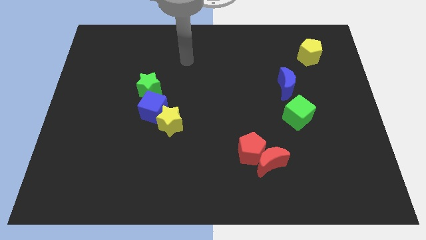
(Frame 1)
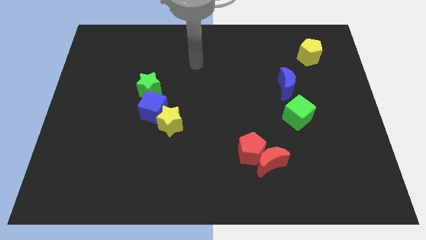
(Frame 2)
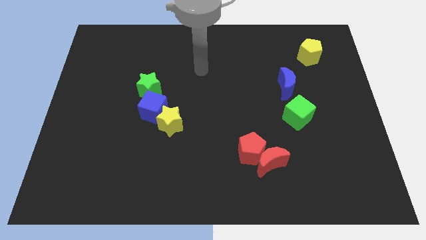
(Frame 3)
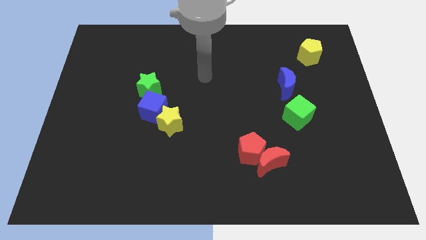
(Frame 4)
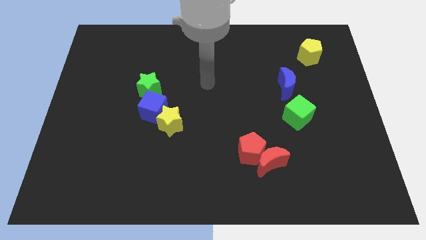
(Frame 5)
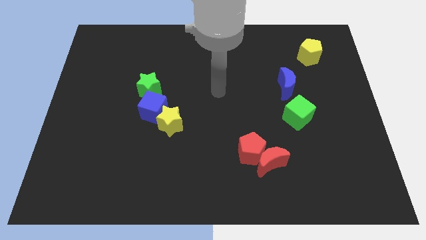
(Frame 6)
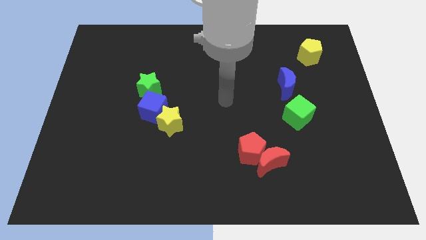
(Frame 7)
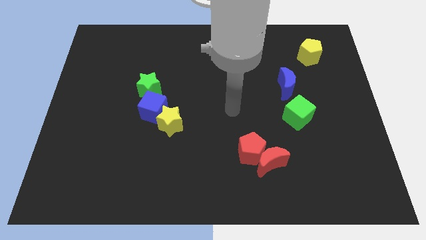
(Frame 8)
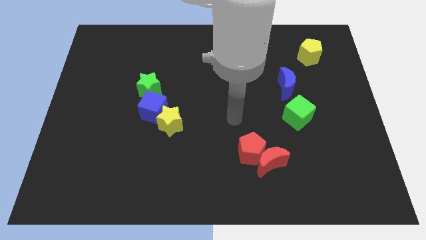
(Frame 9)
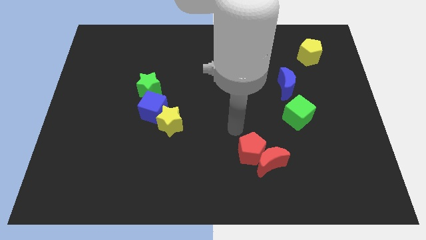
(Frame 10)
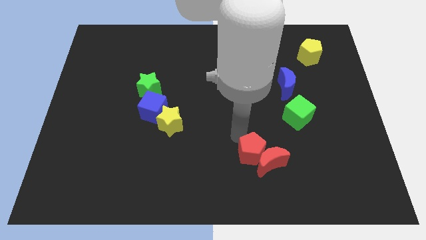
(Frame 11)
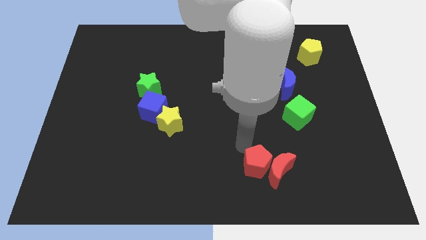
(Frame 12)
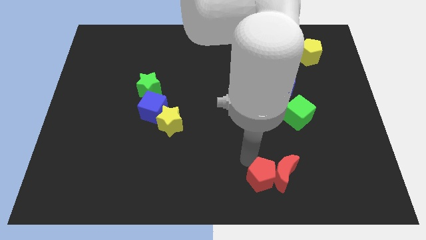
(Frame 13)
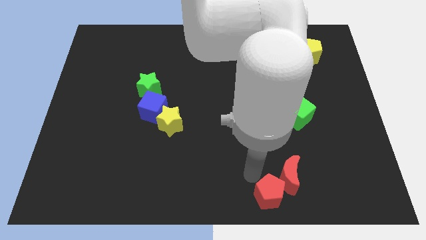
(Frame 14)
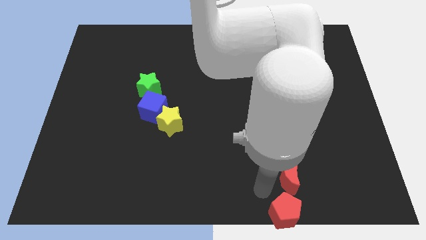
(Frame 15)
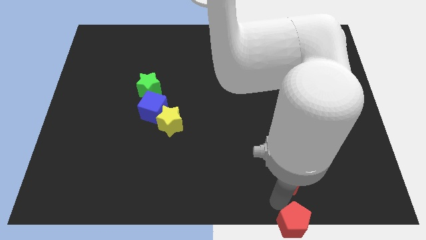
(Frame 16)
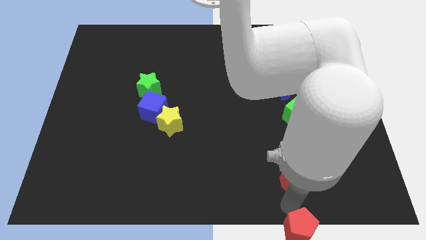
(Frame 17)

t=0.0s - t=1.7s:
separate the red moon from the red pentagon

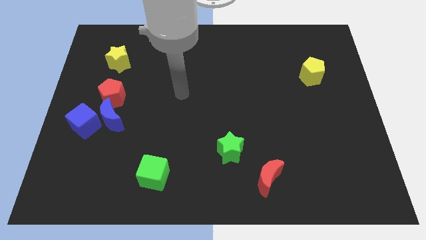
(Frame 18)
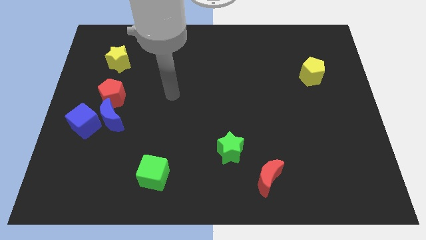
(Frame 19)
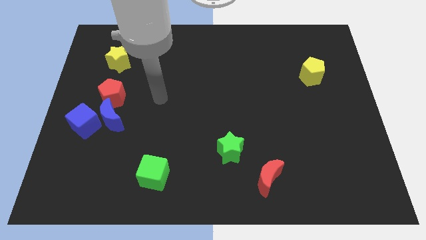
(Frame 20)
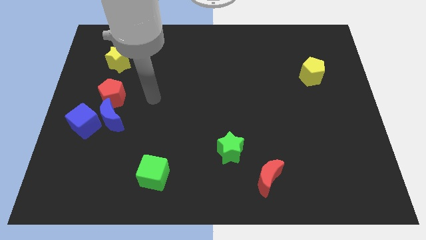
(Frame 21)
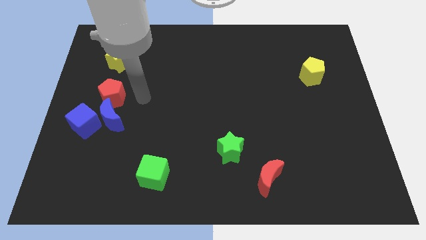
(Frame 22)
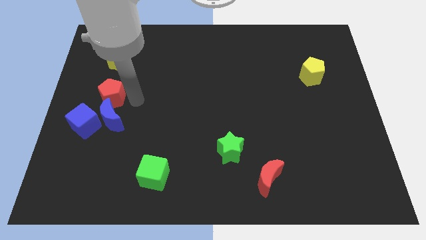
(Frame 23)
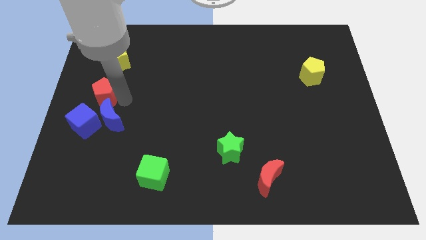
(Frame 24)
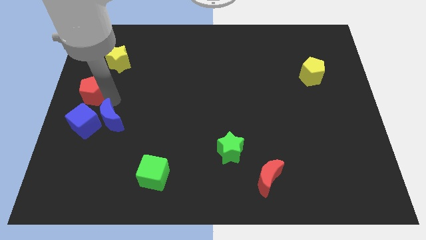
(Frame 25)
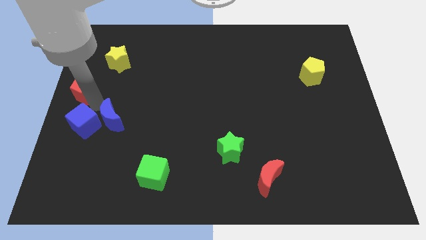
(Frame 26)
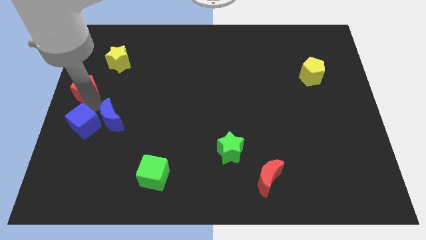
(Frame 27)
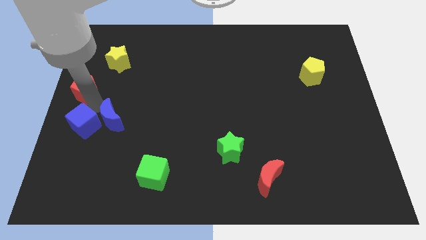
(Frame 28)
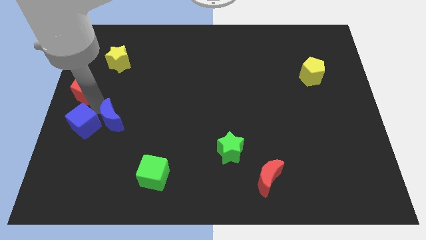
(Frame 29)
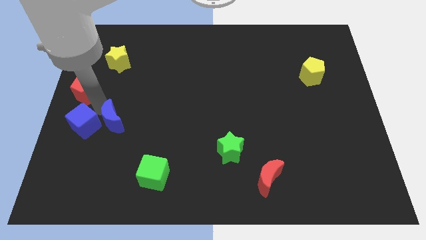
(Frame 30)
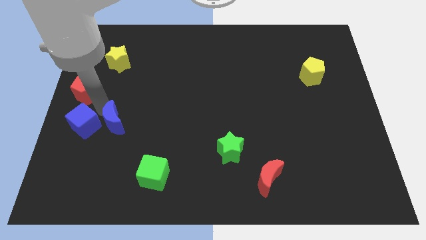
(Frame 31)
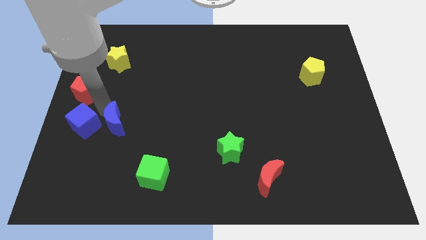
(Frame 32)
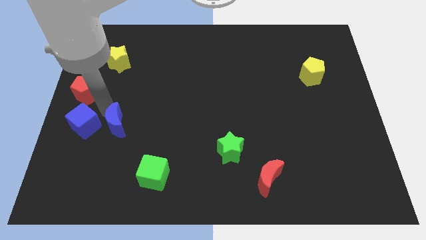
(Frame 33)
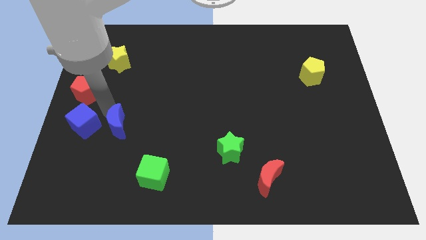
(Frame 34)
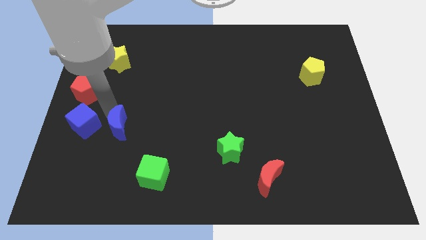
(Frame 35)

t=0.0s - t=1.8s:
move the blue moon away from the blue cube and red pentagon

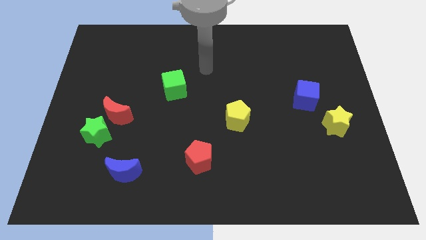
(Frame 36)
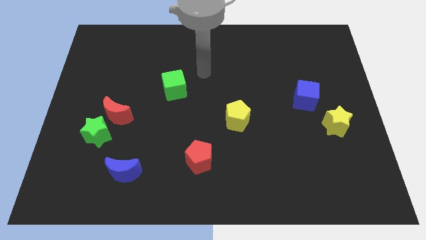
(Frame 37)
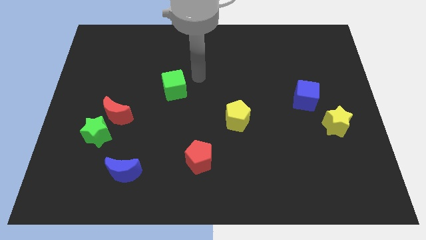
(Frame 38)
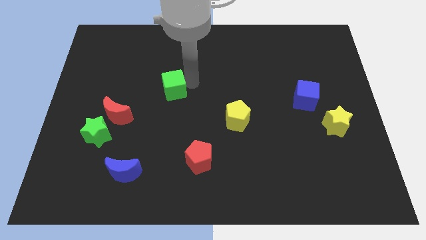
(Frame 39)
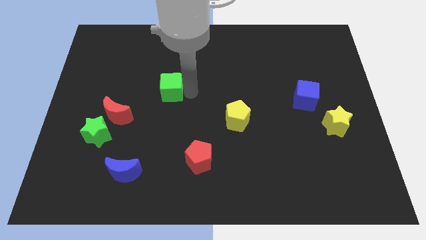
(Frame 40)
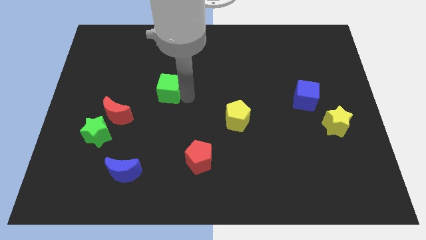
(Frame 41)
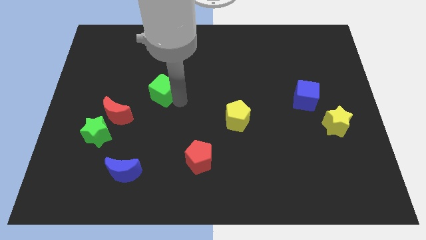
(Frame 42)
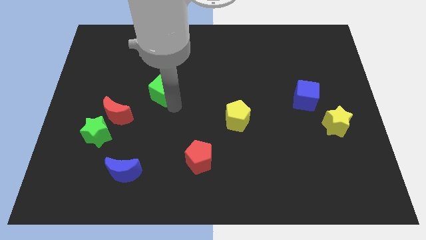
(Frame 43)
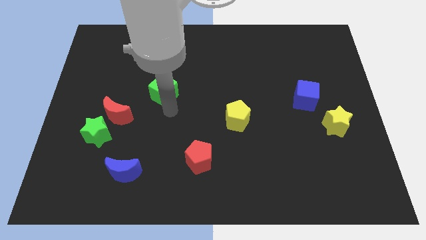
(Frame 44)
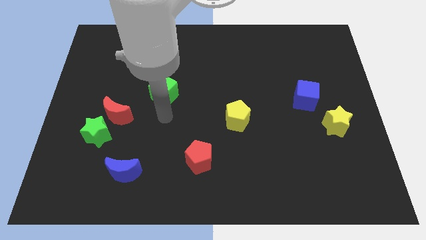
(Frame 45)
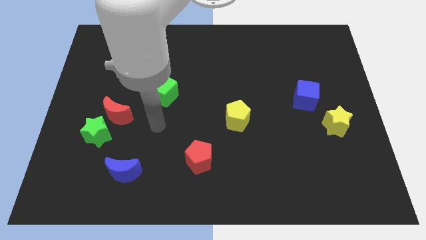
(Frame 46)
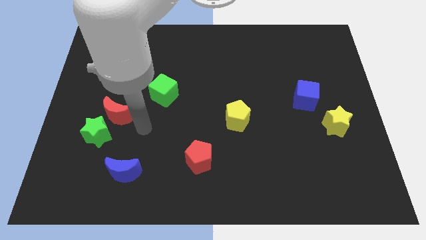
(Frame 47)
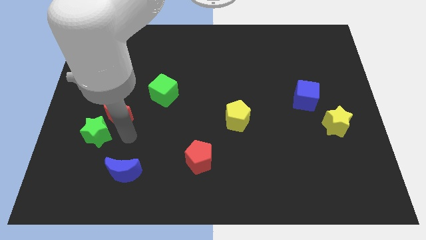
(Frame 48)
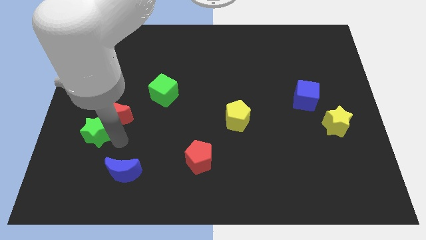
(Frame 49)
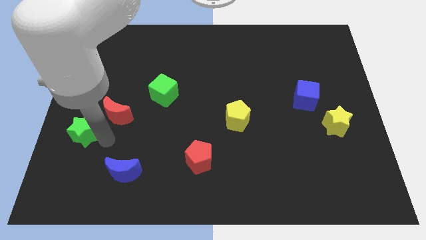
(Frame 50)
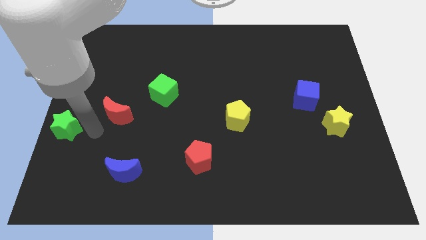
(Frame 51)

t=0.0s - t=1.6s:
move the red moon away from the green star

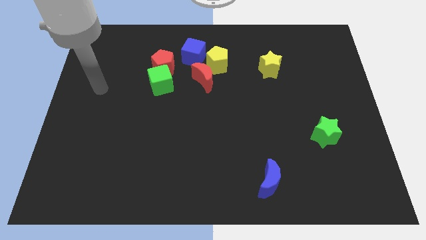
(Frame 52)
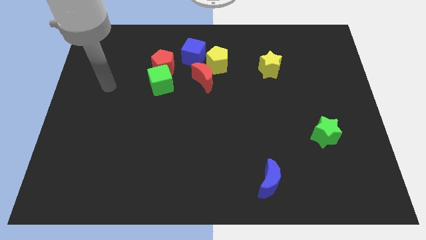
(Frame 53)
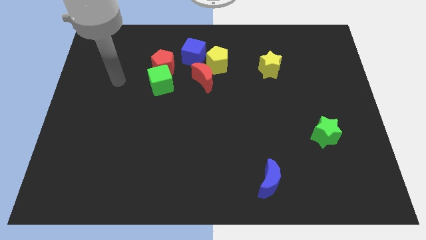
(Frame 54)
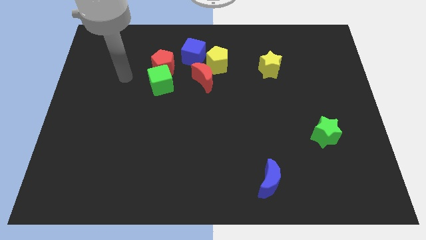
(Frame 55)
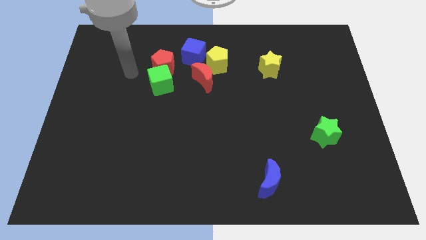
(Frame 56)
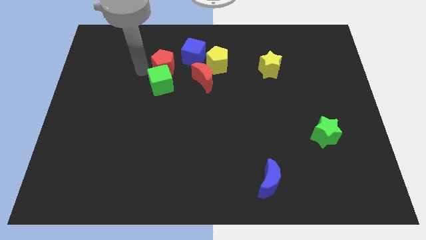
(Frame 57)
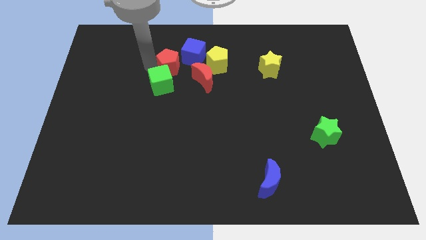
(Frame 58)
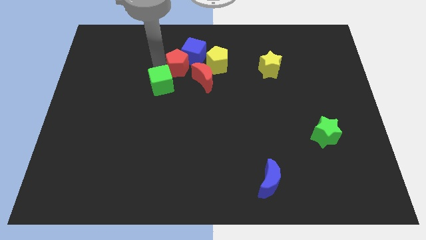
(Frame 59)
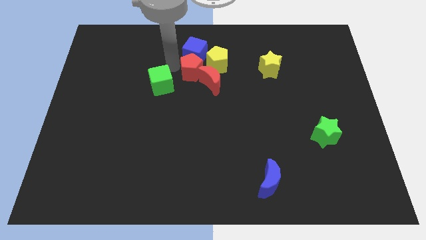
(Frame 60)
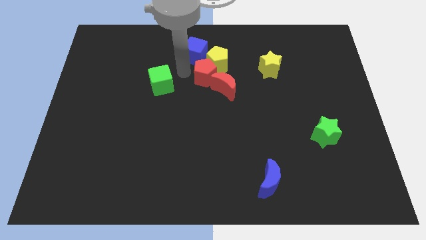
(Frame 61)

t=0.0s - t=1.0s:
separate the green cube from the red pentagon

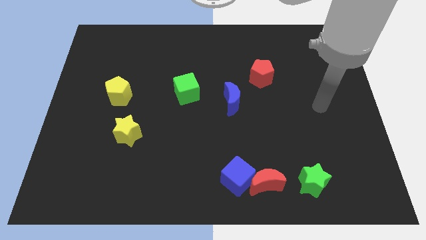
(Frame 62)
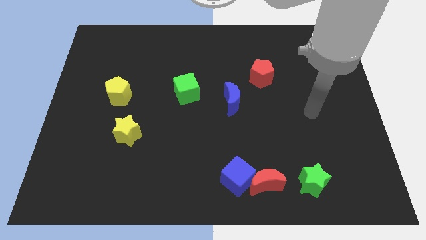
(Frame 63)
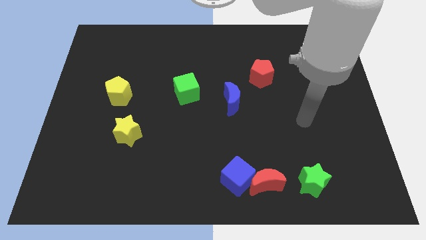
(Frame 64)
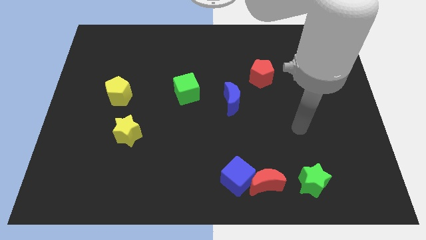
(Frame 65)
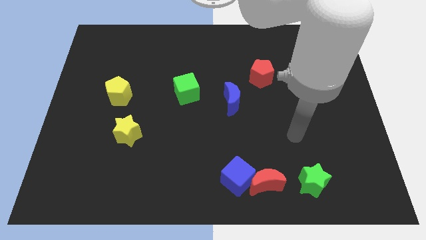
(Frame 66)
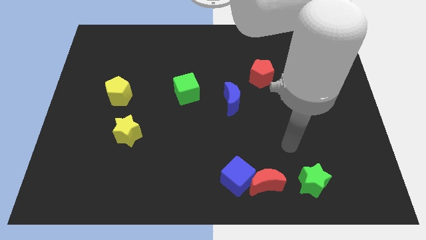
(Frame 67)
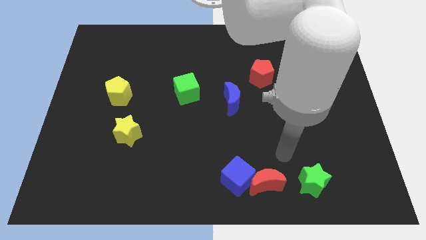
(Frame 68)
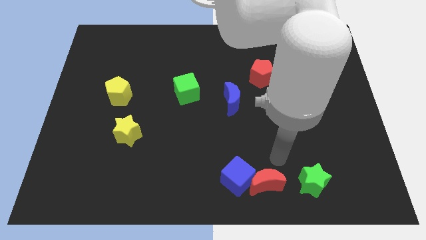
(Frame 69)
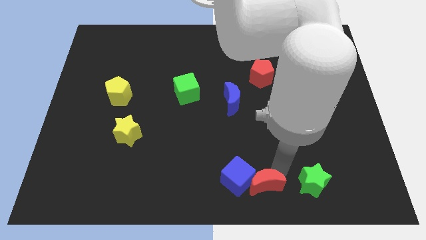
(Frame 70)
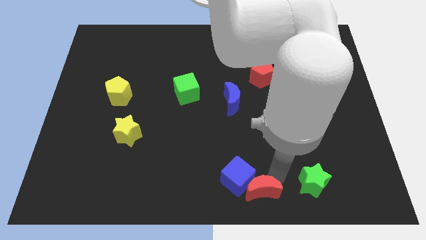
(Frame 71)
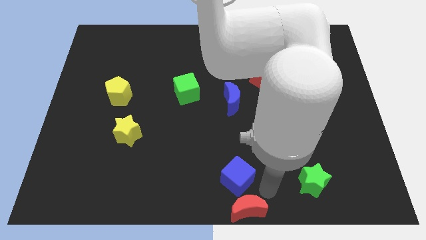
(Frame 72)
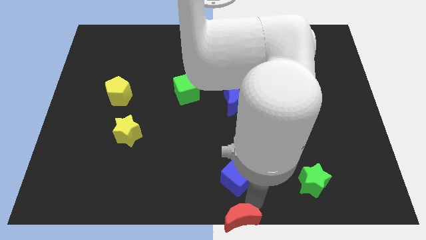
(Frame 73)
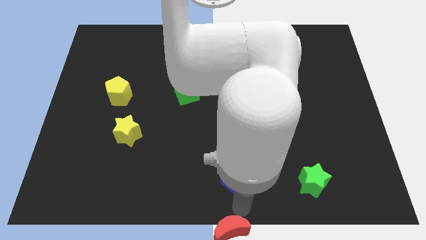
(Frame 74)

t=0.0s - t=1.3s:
pull the blue cube apart from the red moon

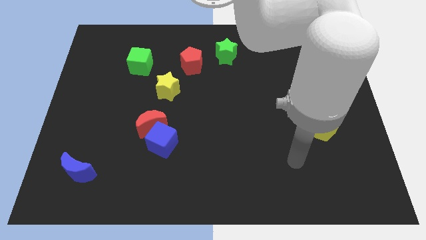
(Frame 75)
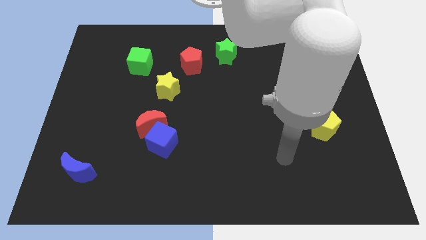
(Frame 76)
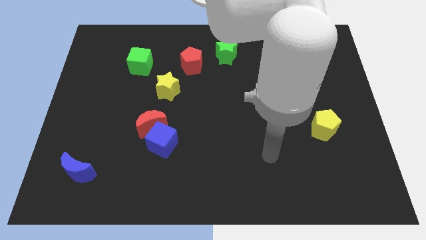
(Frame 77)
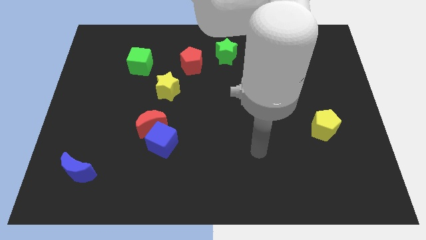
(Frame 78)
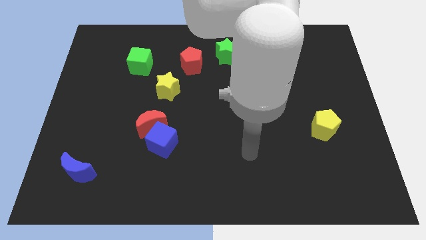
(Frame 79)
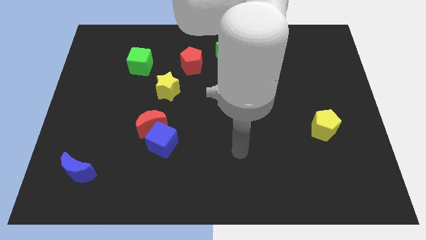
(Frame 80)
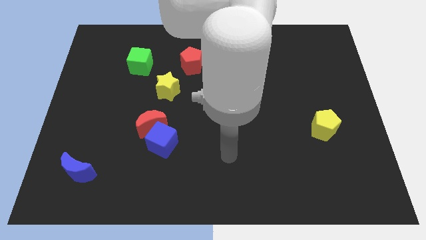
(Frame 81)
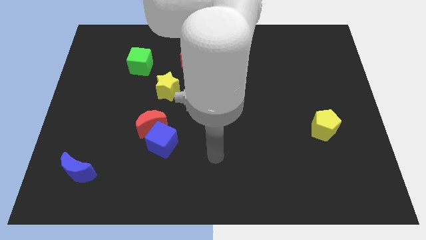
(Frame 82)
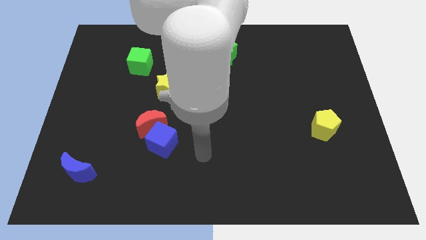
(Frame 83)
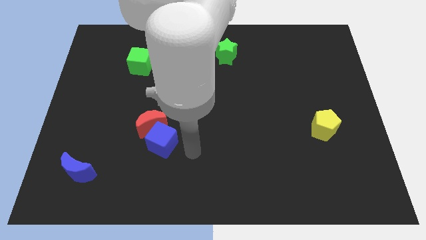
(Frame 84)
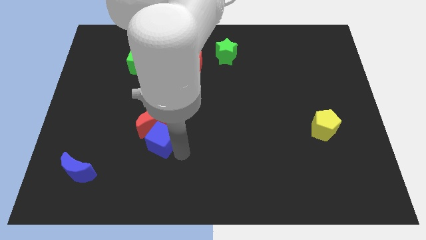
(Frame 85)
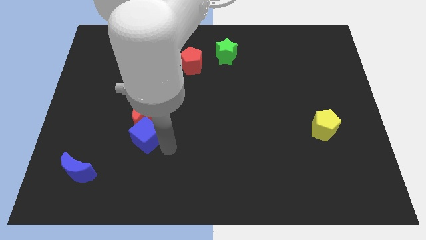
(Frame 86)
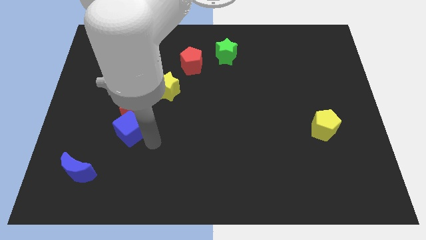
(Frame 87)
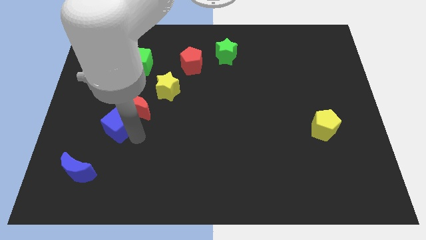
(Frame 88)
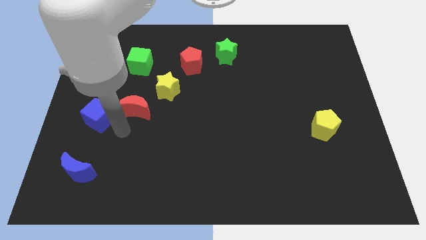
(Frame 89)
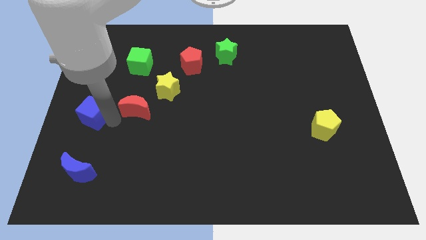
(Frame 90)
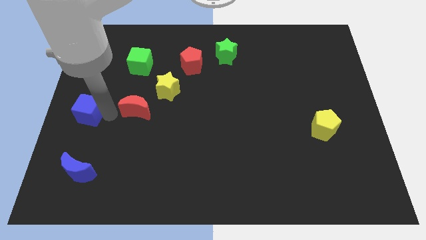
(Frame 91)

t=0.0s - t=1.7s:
pull the red moon apart from the blue cube
